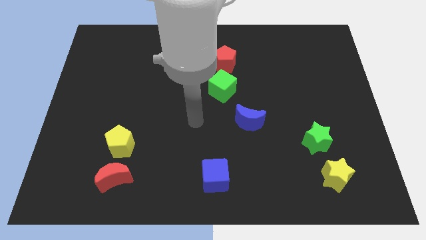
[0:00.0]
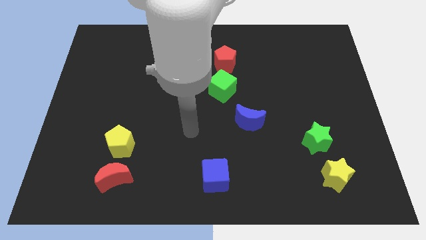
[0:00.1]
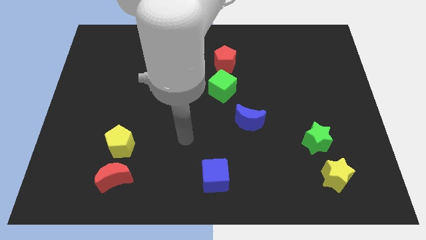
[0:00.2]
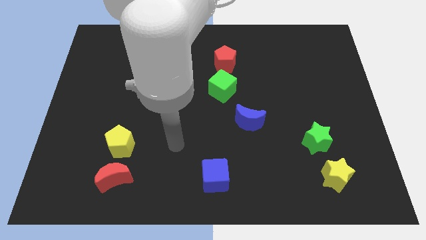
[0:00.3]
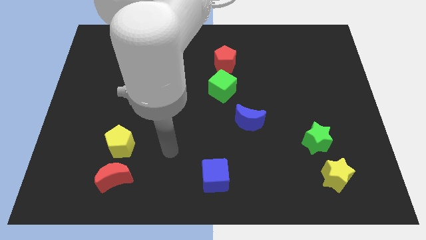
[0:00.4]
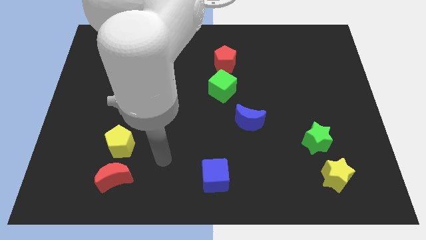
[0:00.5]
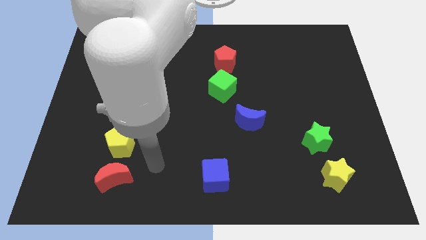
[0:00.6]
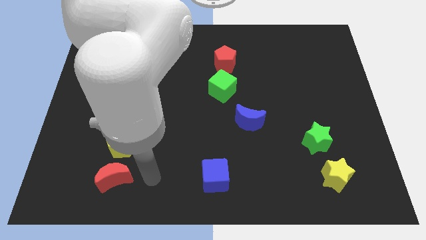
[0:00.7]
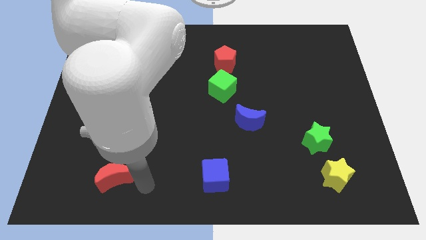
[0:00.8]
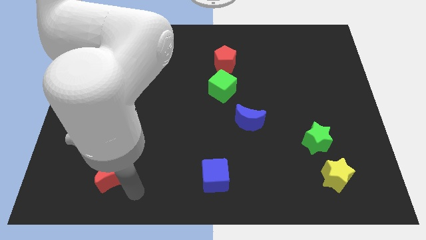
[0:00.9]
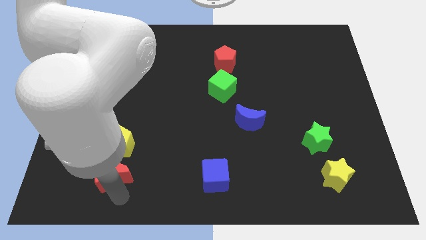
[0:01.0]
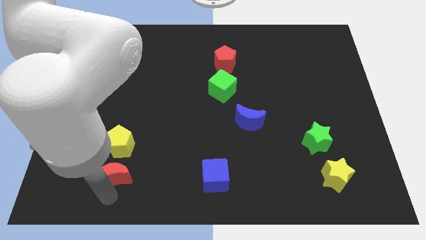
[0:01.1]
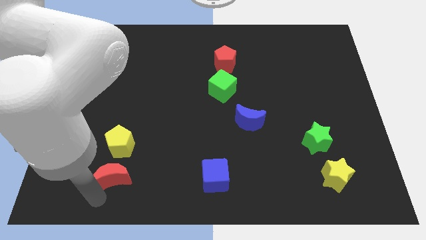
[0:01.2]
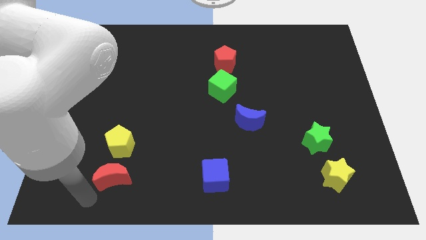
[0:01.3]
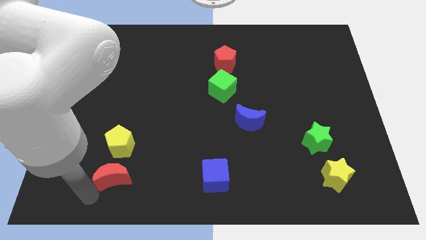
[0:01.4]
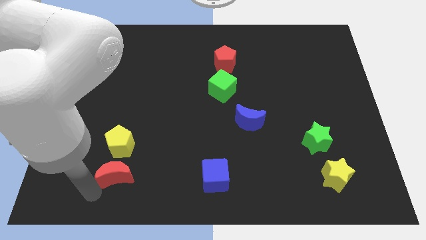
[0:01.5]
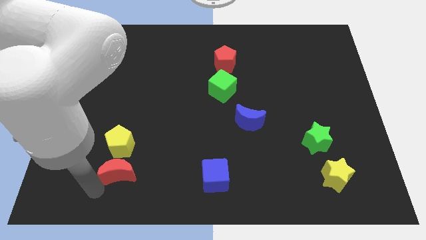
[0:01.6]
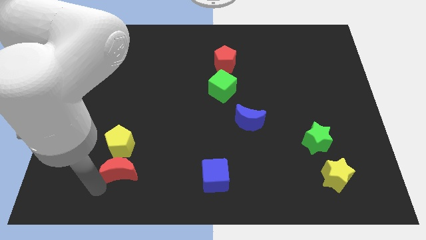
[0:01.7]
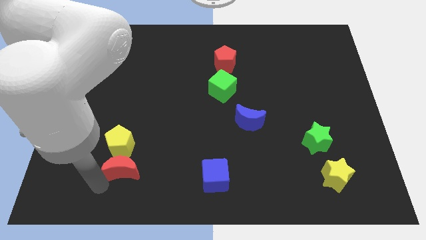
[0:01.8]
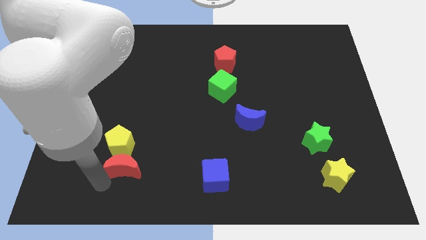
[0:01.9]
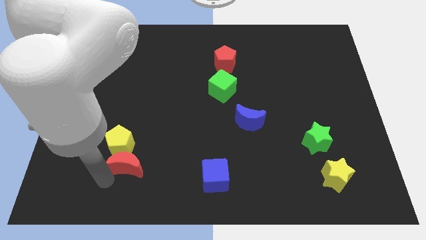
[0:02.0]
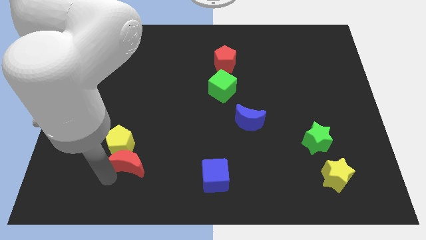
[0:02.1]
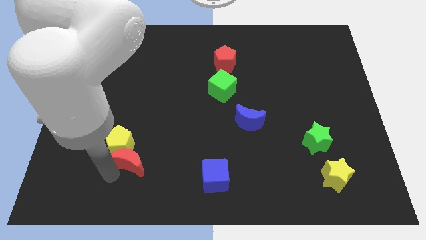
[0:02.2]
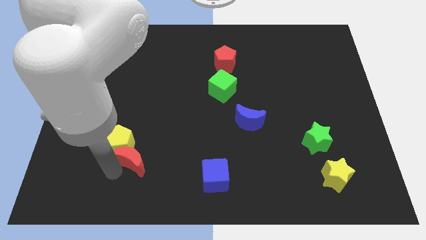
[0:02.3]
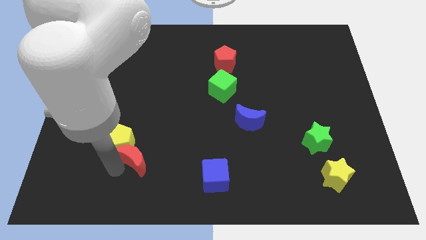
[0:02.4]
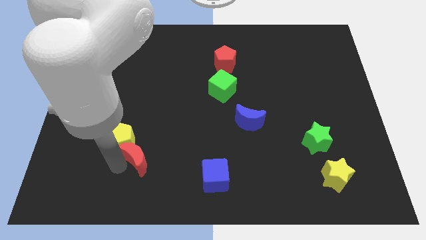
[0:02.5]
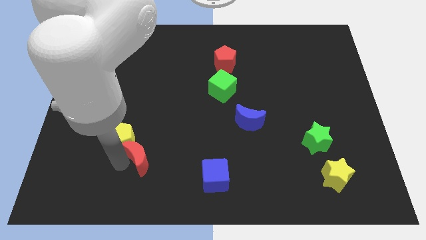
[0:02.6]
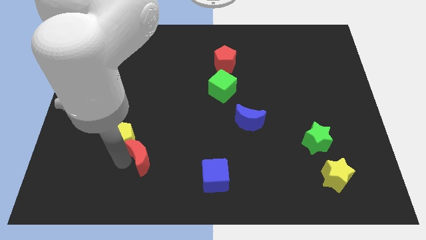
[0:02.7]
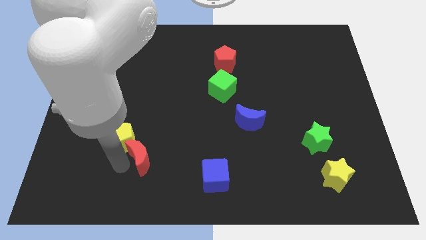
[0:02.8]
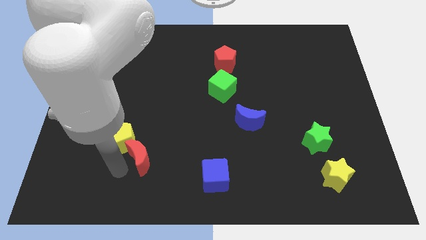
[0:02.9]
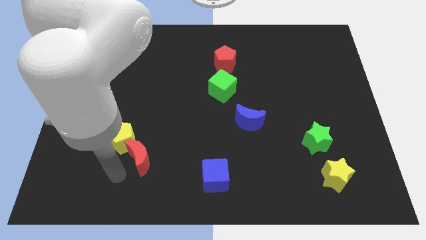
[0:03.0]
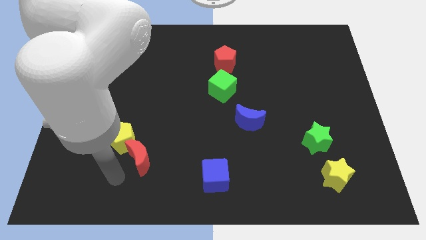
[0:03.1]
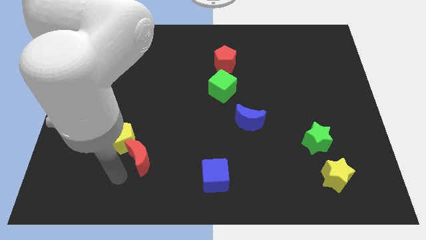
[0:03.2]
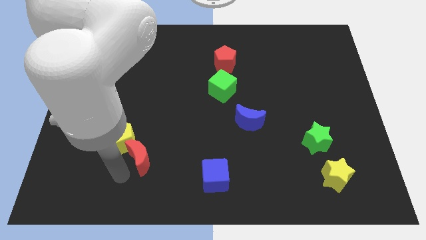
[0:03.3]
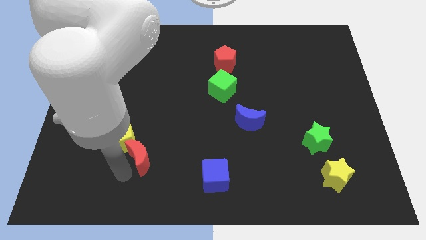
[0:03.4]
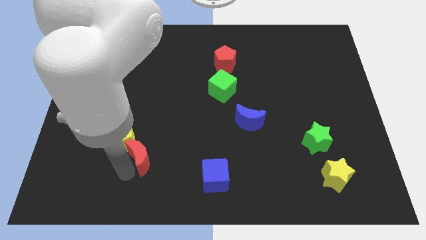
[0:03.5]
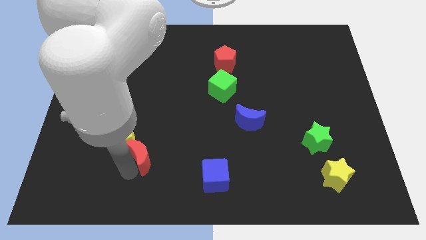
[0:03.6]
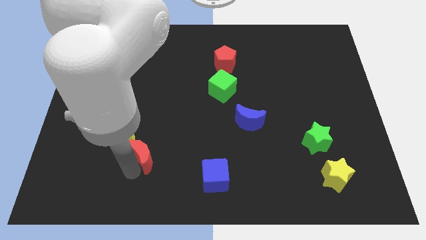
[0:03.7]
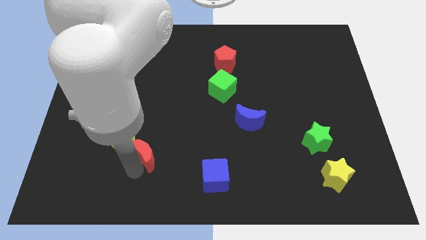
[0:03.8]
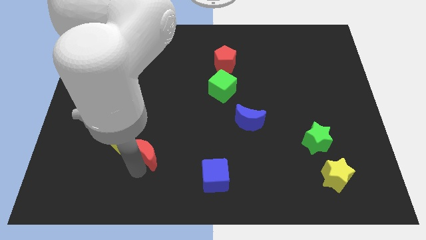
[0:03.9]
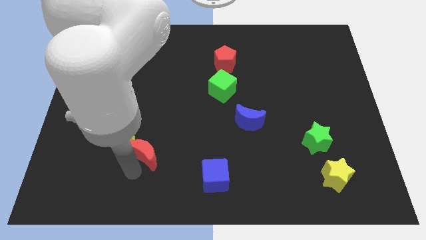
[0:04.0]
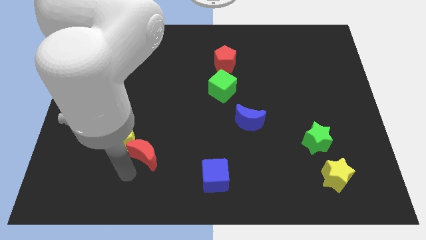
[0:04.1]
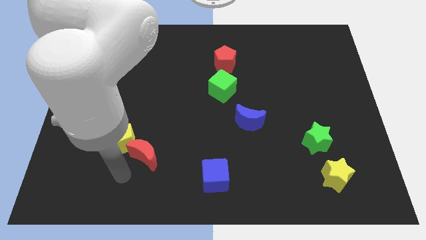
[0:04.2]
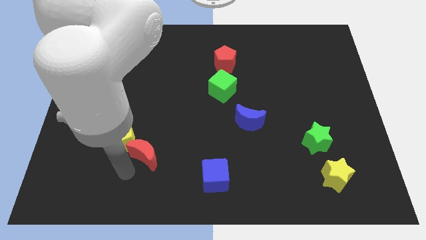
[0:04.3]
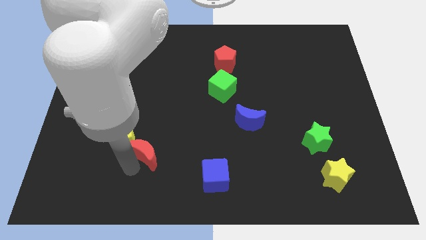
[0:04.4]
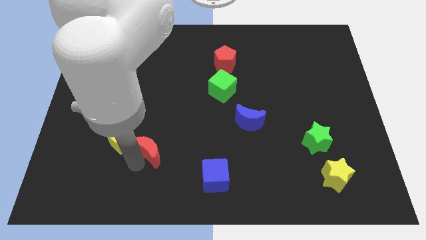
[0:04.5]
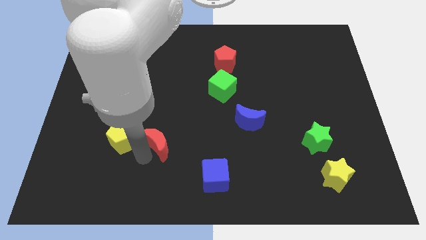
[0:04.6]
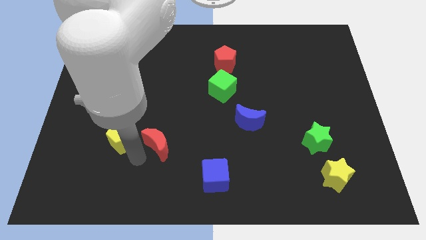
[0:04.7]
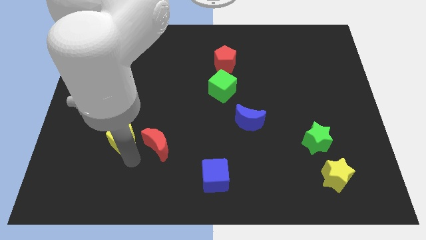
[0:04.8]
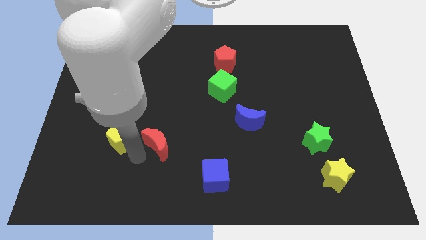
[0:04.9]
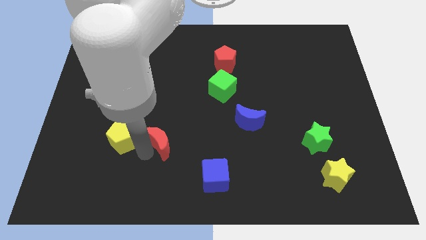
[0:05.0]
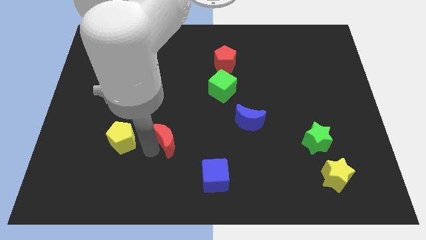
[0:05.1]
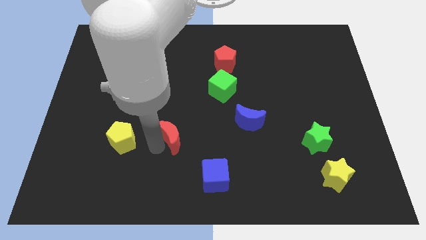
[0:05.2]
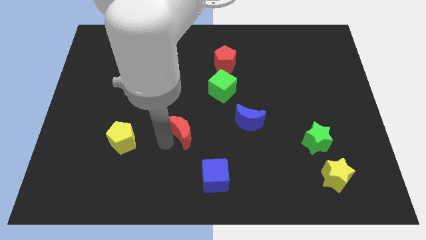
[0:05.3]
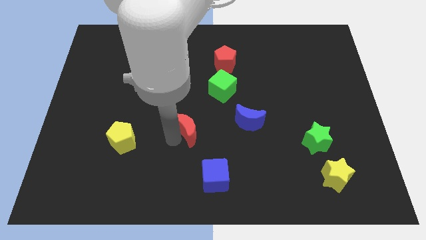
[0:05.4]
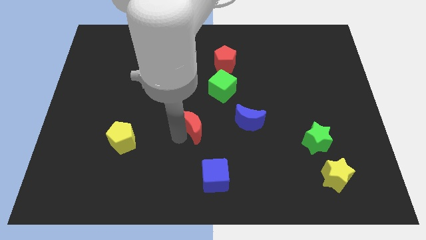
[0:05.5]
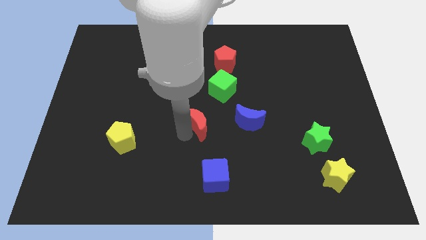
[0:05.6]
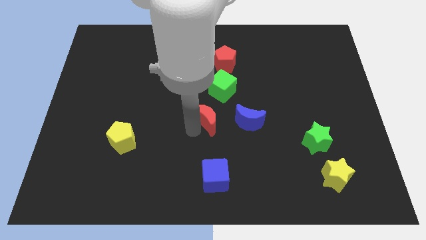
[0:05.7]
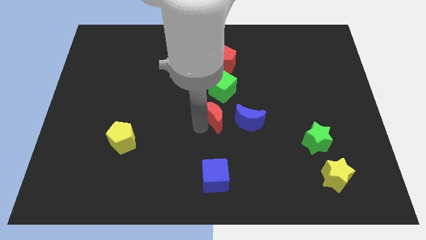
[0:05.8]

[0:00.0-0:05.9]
move the red moon to the top left of the blue moon

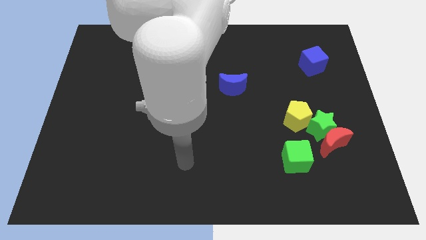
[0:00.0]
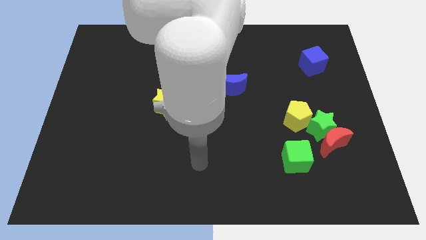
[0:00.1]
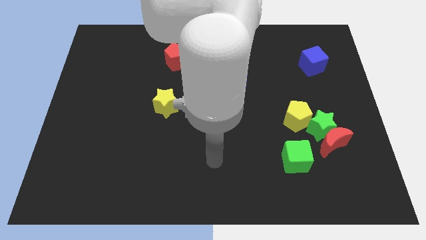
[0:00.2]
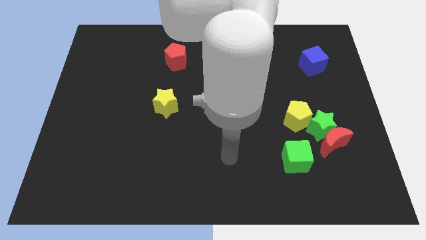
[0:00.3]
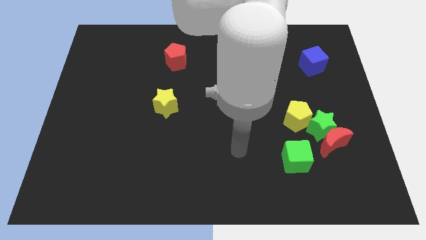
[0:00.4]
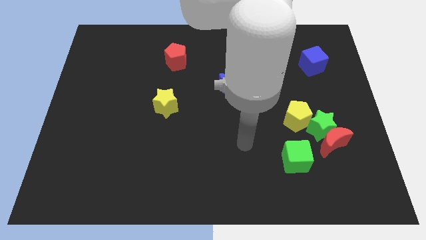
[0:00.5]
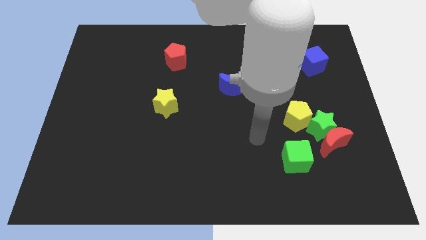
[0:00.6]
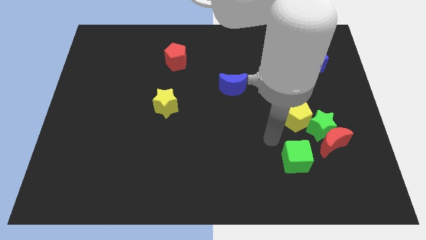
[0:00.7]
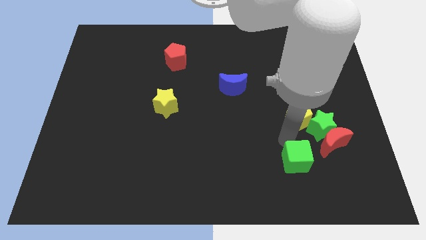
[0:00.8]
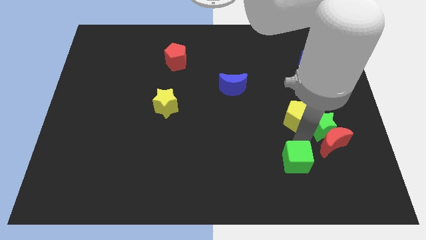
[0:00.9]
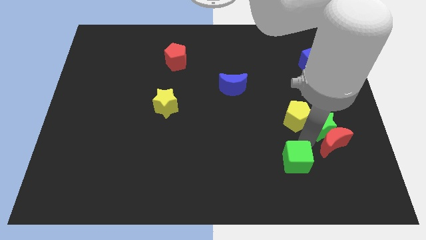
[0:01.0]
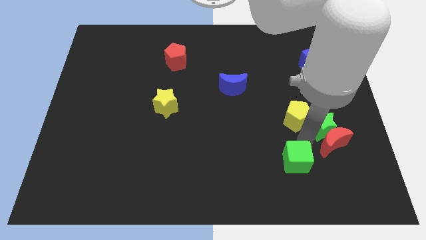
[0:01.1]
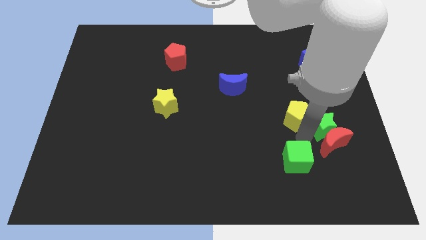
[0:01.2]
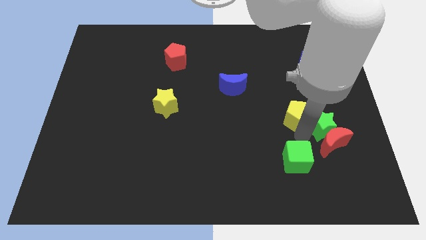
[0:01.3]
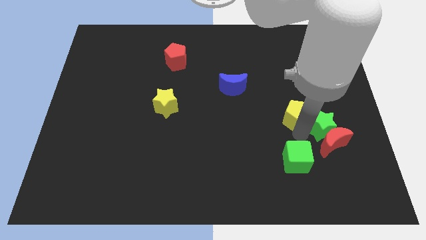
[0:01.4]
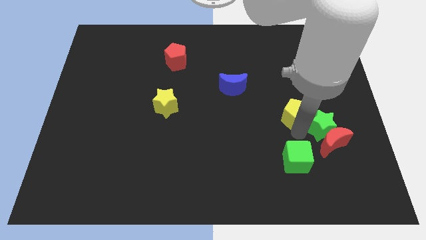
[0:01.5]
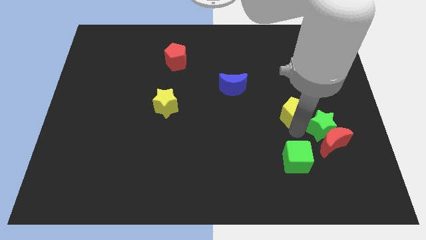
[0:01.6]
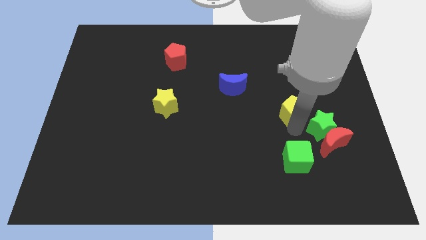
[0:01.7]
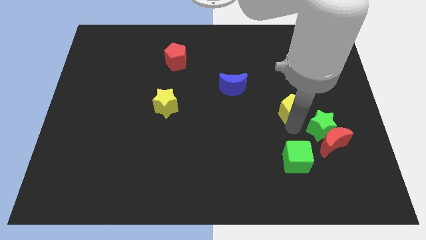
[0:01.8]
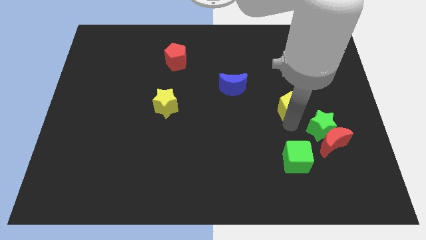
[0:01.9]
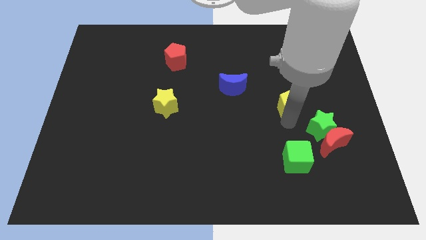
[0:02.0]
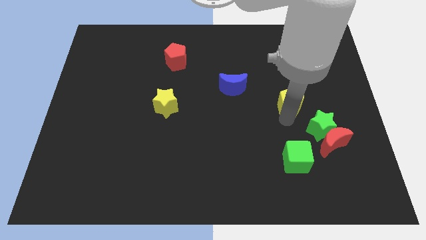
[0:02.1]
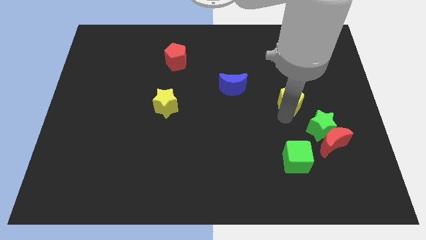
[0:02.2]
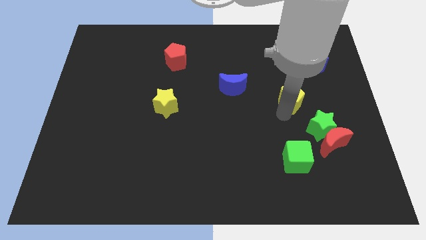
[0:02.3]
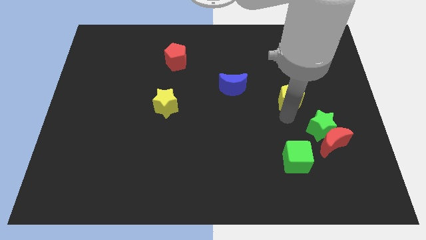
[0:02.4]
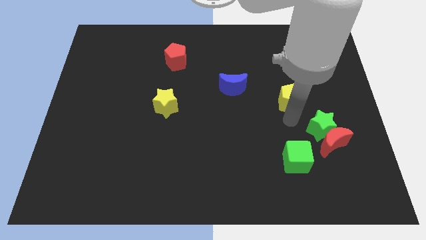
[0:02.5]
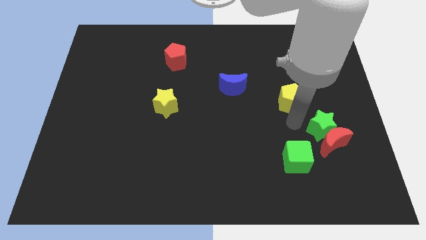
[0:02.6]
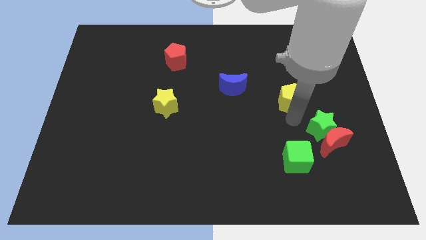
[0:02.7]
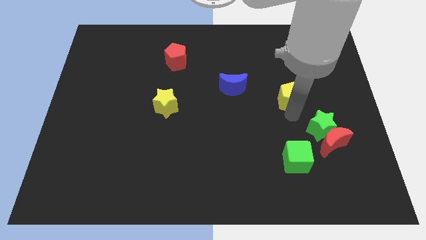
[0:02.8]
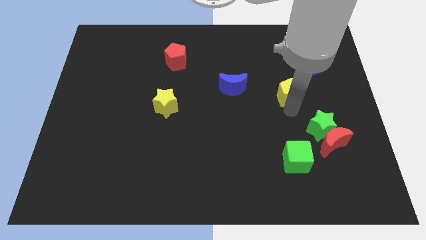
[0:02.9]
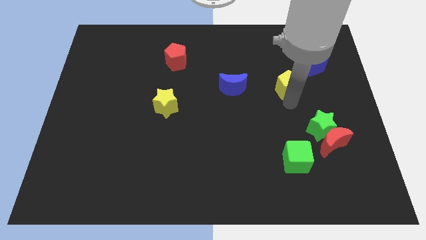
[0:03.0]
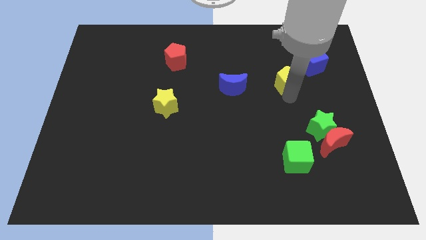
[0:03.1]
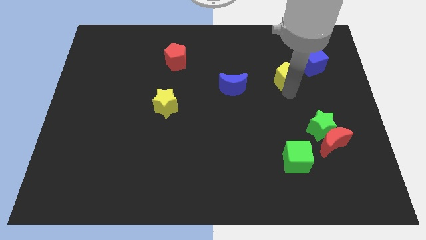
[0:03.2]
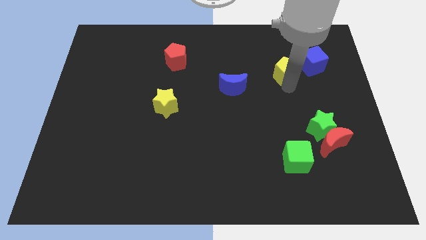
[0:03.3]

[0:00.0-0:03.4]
push the yellow pentagon left of the blue cube
